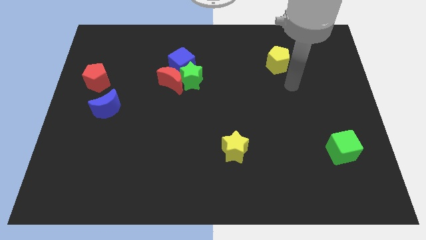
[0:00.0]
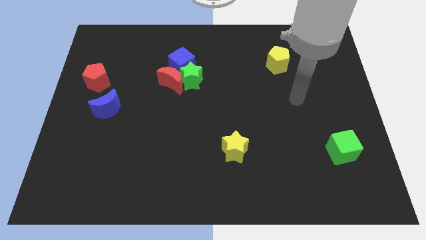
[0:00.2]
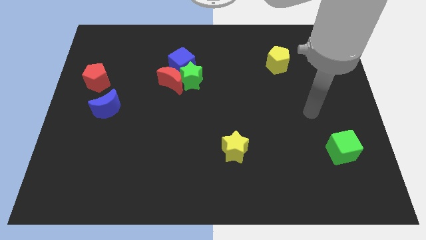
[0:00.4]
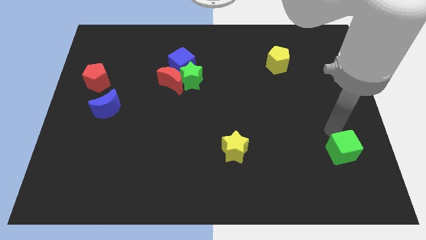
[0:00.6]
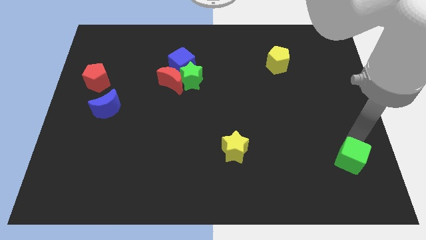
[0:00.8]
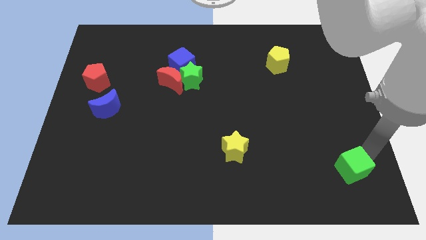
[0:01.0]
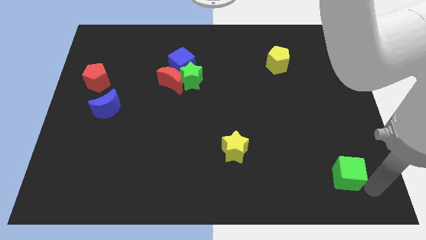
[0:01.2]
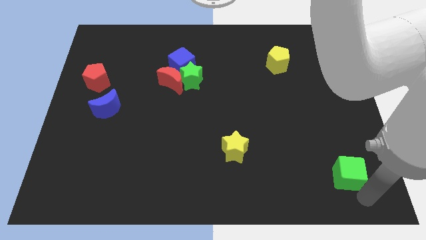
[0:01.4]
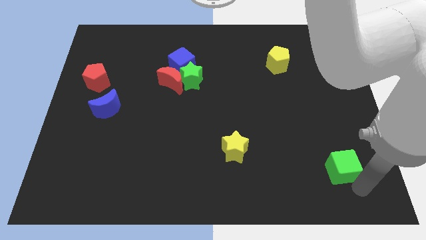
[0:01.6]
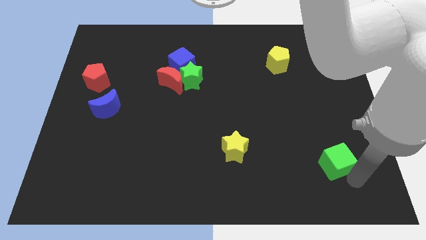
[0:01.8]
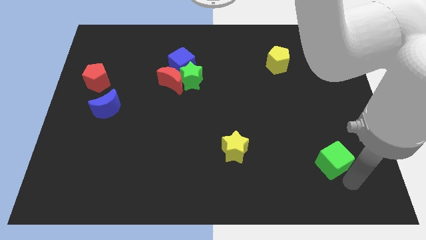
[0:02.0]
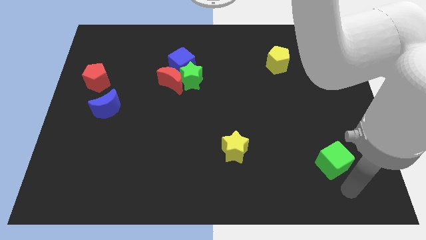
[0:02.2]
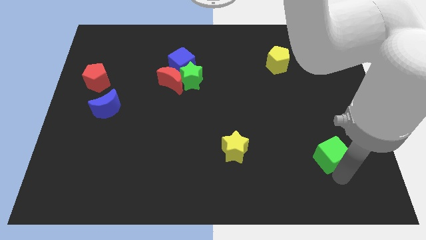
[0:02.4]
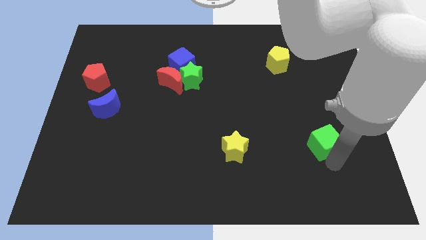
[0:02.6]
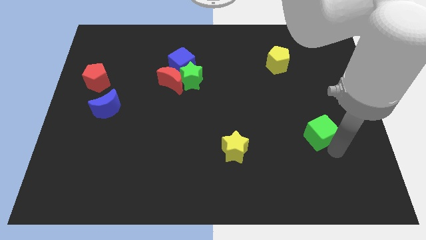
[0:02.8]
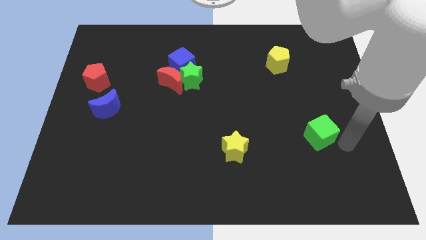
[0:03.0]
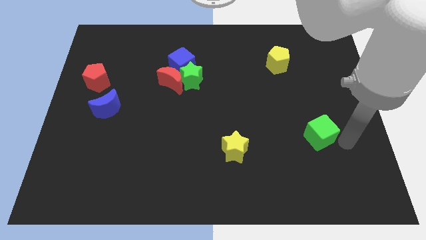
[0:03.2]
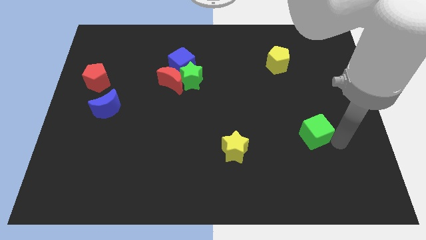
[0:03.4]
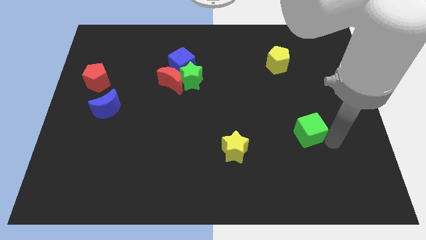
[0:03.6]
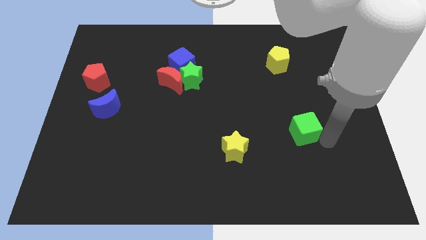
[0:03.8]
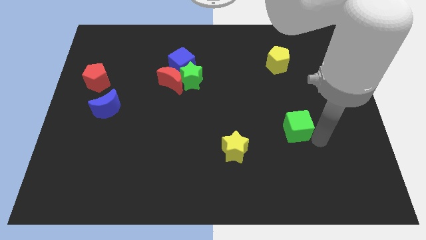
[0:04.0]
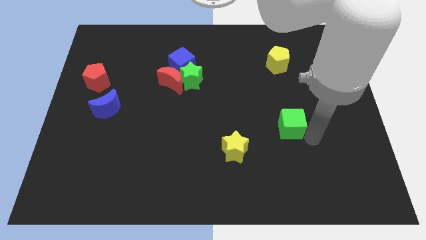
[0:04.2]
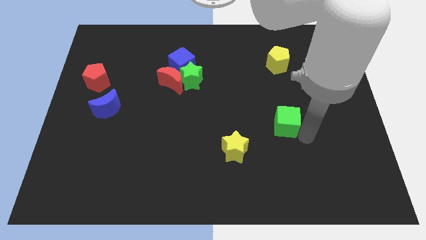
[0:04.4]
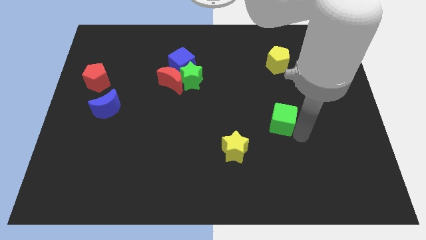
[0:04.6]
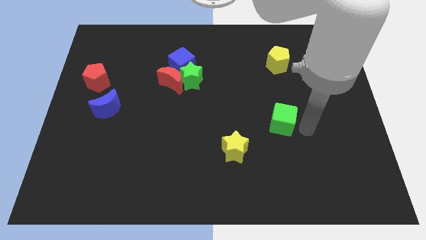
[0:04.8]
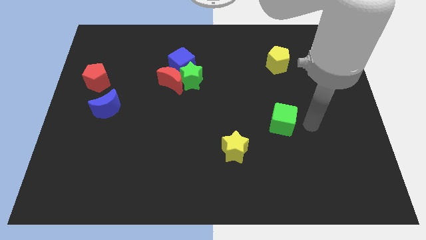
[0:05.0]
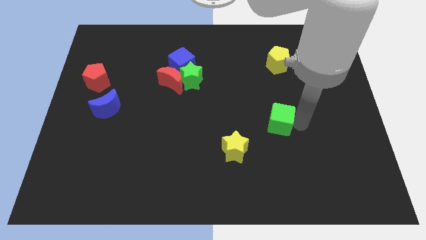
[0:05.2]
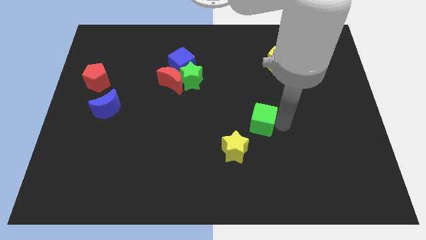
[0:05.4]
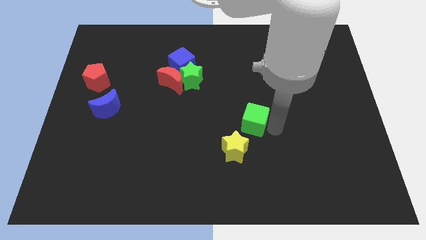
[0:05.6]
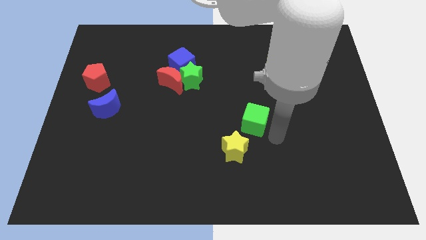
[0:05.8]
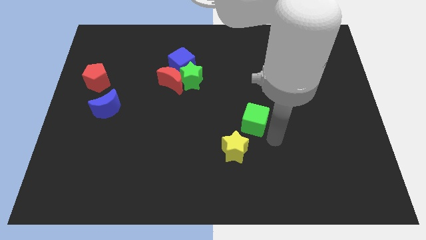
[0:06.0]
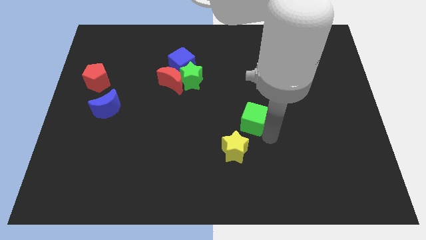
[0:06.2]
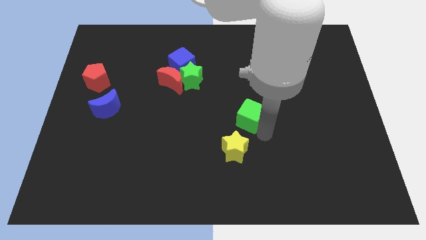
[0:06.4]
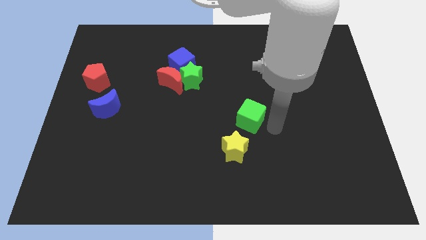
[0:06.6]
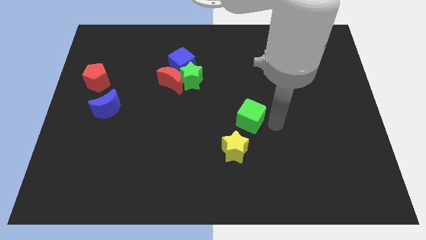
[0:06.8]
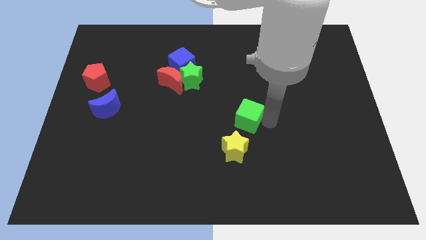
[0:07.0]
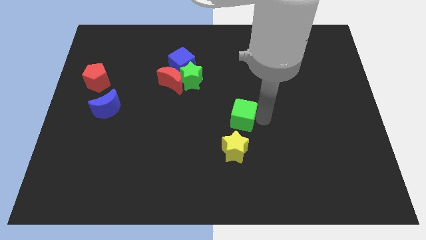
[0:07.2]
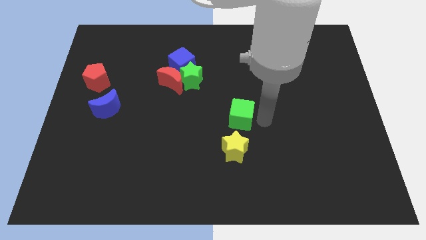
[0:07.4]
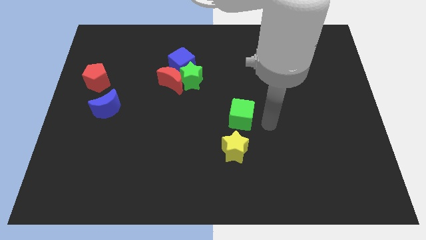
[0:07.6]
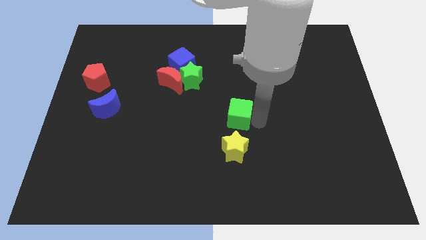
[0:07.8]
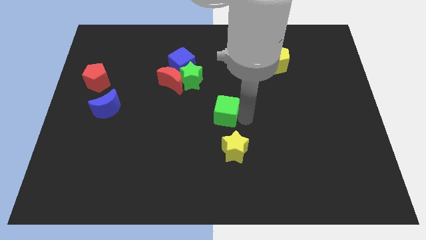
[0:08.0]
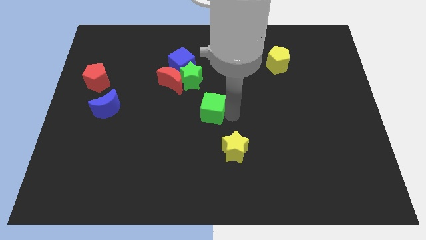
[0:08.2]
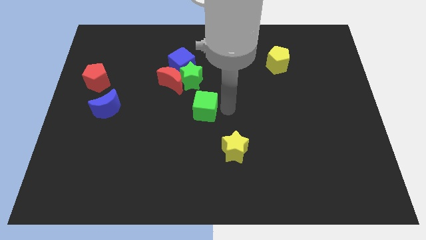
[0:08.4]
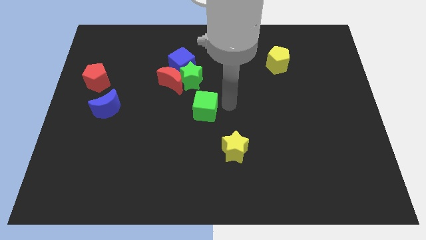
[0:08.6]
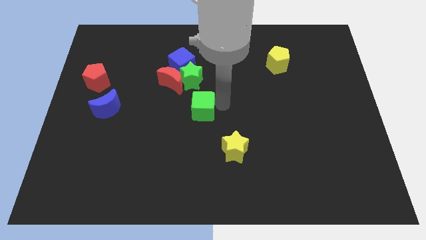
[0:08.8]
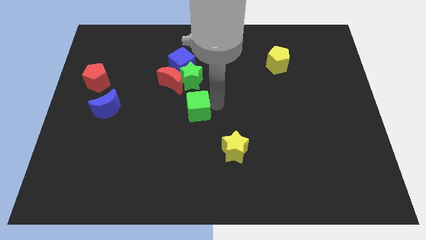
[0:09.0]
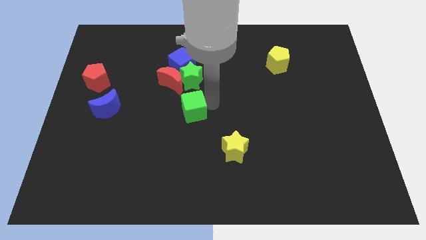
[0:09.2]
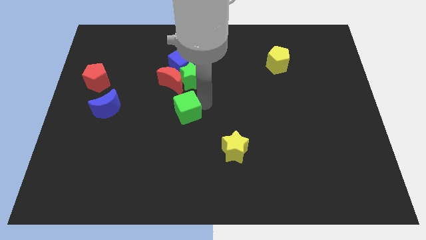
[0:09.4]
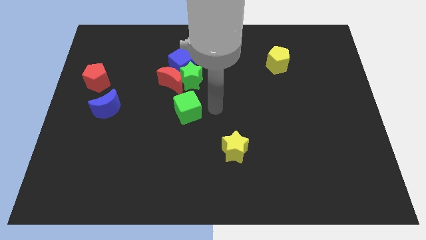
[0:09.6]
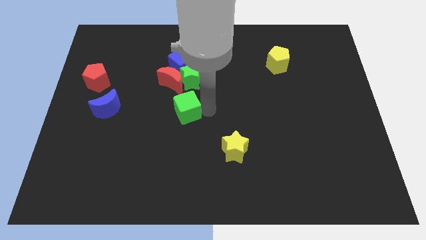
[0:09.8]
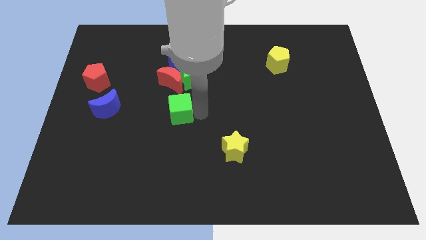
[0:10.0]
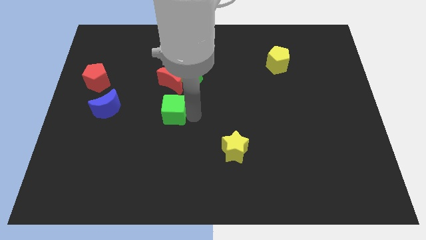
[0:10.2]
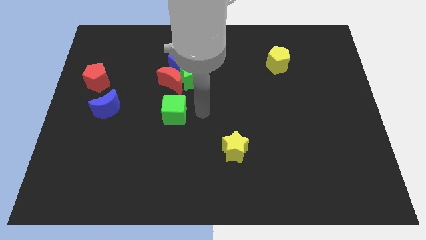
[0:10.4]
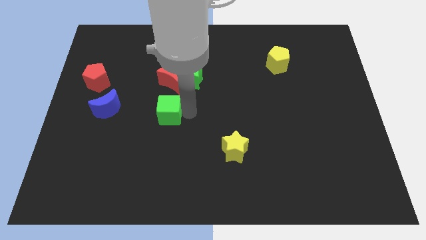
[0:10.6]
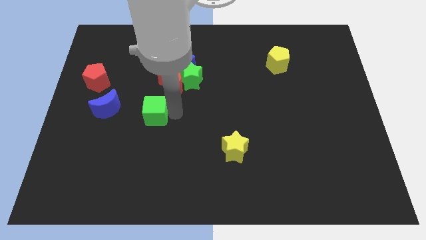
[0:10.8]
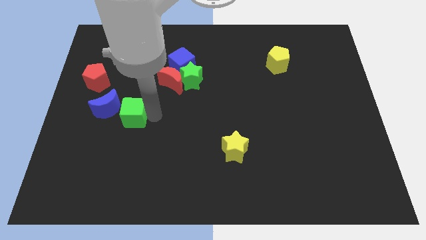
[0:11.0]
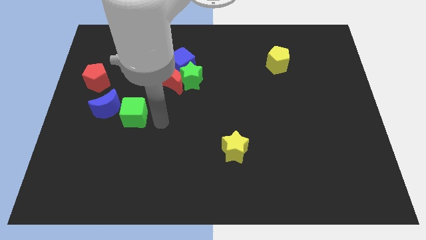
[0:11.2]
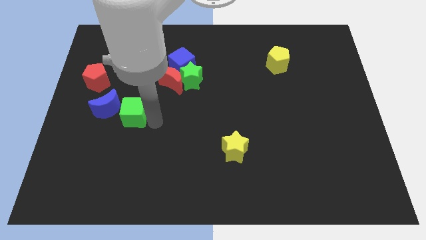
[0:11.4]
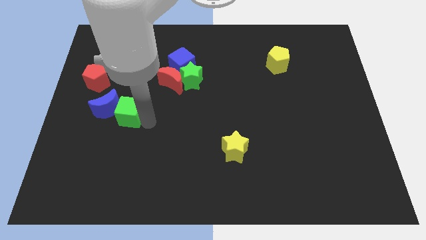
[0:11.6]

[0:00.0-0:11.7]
slide the green cube next to the blue moon

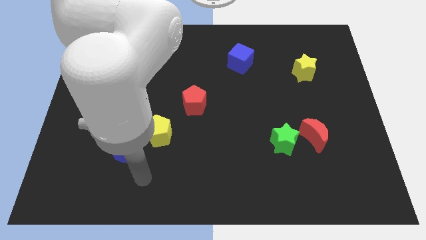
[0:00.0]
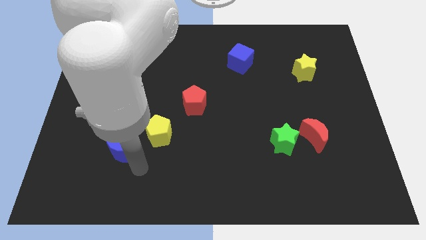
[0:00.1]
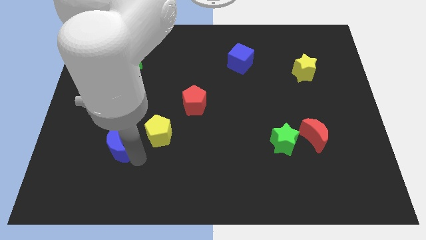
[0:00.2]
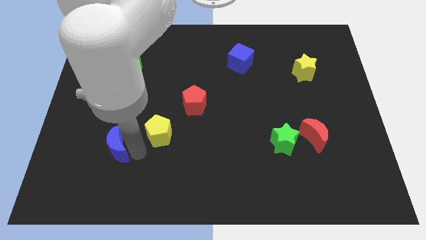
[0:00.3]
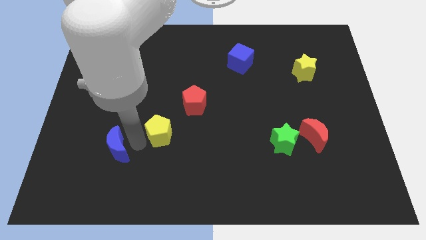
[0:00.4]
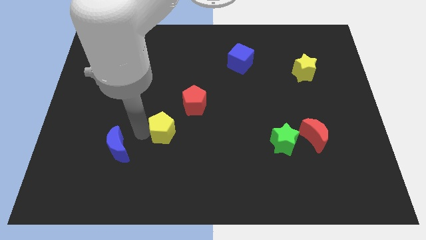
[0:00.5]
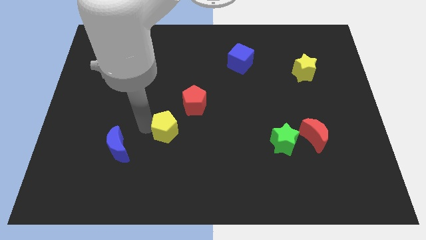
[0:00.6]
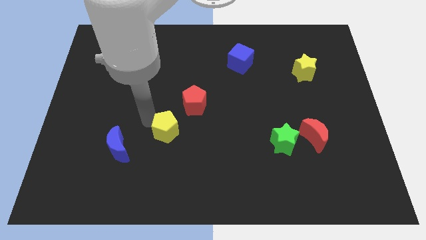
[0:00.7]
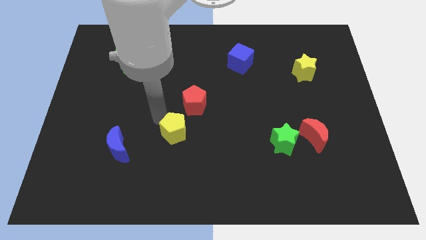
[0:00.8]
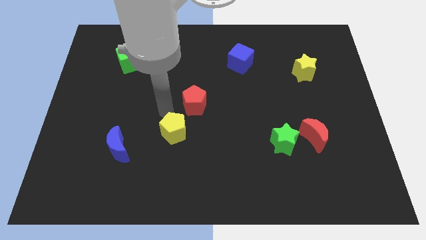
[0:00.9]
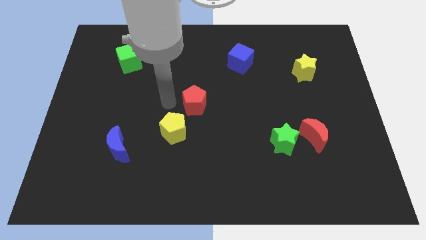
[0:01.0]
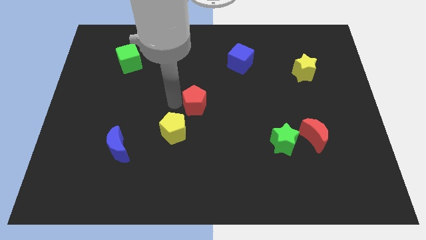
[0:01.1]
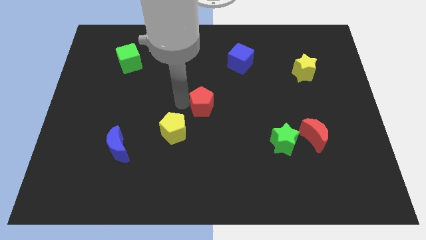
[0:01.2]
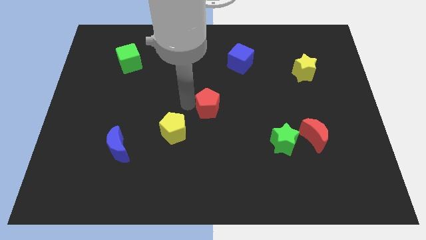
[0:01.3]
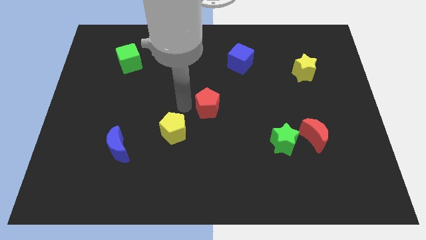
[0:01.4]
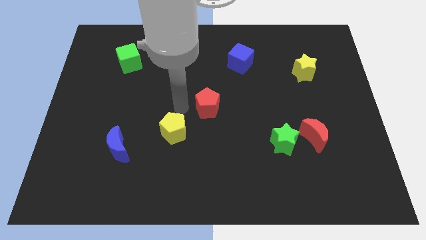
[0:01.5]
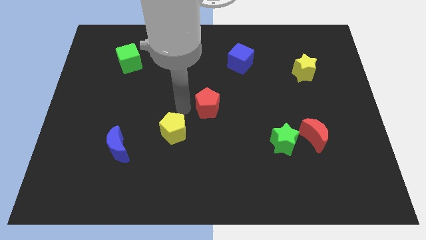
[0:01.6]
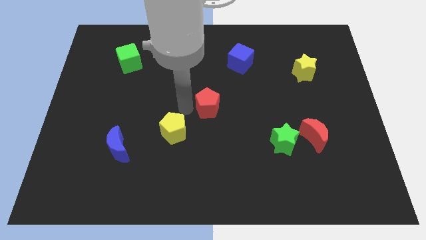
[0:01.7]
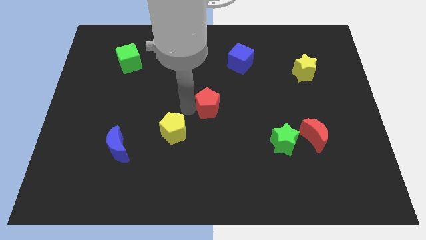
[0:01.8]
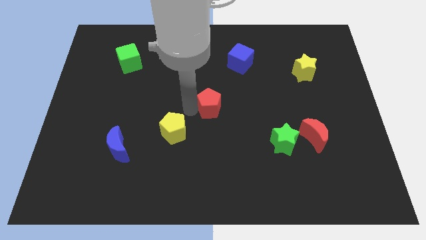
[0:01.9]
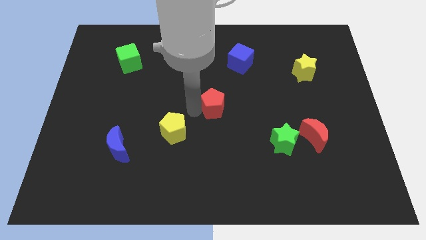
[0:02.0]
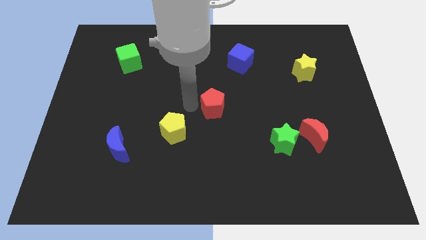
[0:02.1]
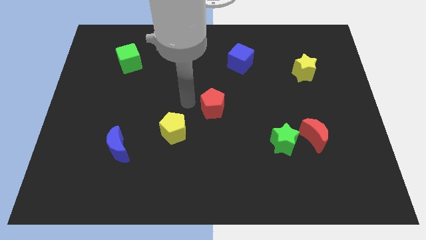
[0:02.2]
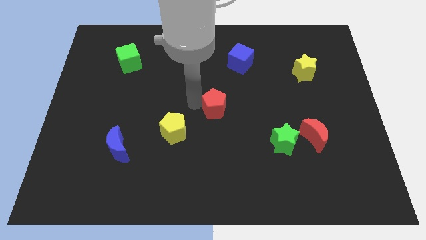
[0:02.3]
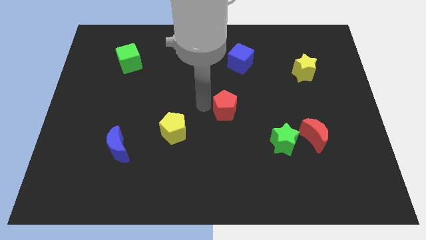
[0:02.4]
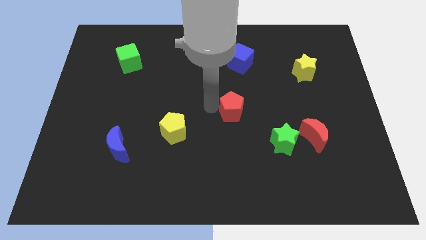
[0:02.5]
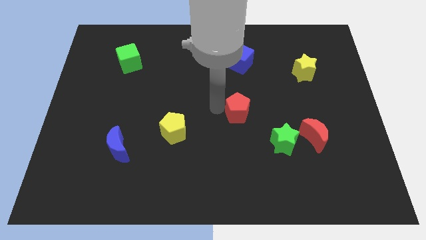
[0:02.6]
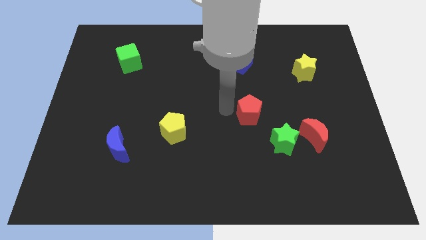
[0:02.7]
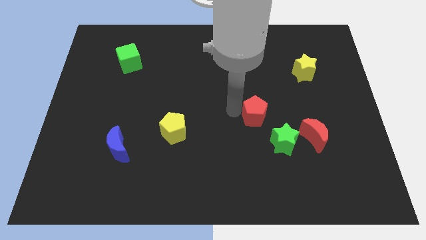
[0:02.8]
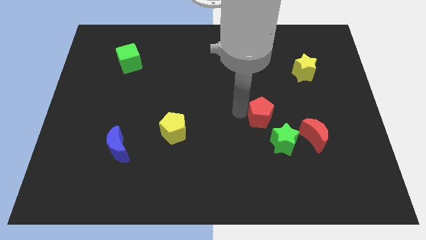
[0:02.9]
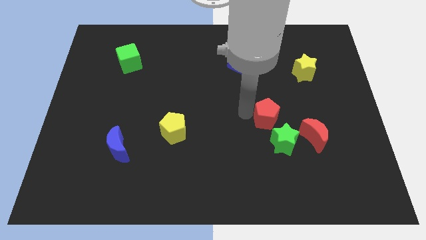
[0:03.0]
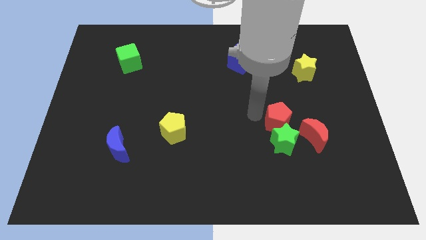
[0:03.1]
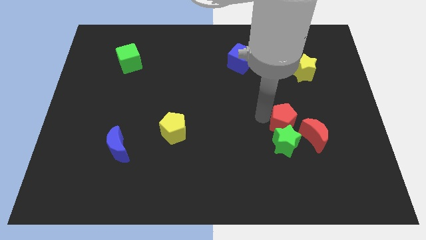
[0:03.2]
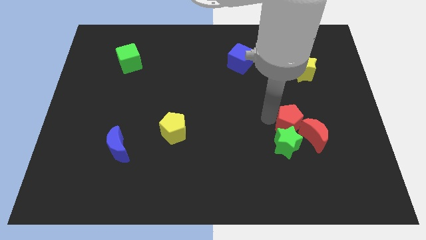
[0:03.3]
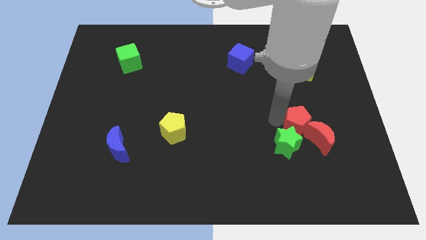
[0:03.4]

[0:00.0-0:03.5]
slide the red pentagon close to the red moon
